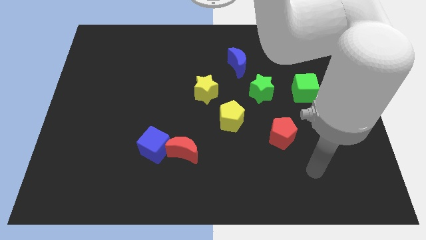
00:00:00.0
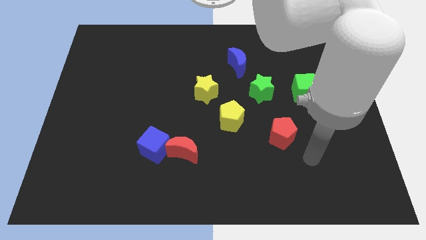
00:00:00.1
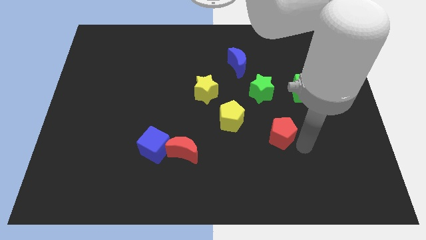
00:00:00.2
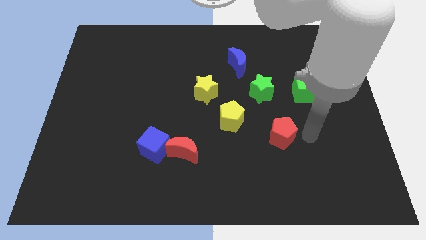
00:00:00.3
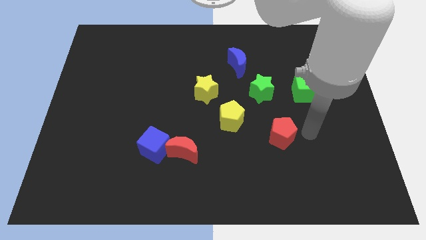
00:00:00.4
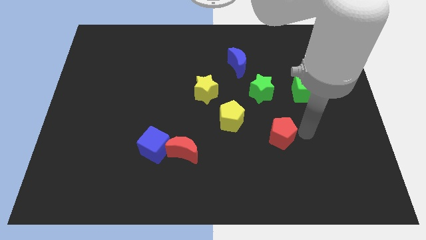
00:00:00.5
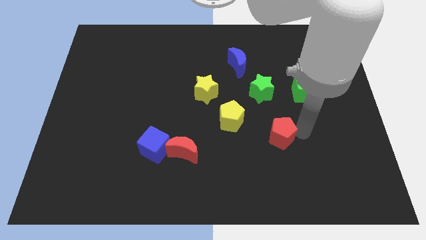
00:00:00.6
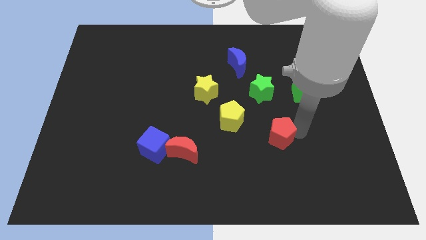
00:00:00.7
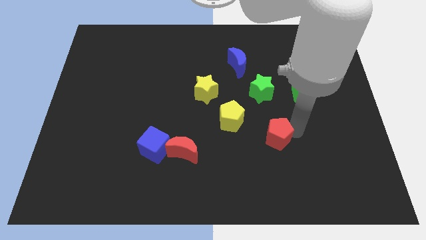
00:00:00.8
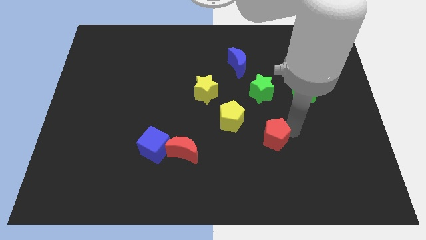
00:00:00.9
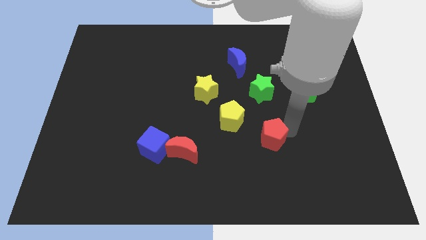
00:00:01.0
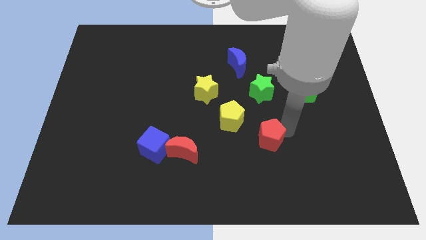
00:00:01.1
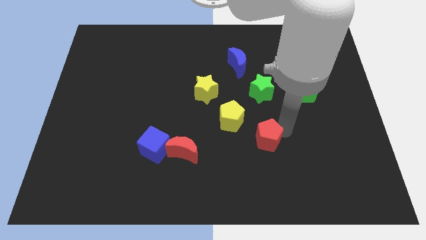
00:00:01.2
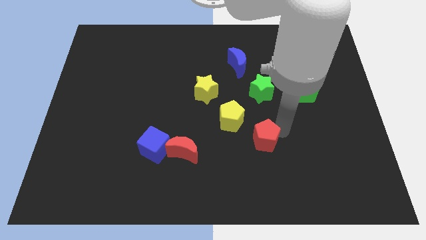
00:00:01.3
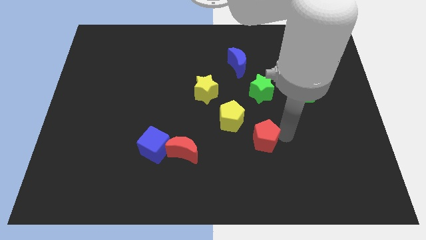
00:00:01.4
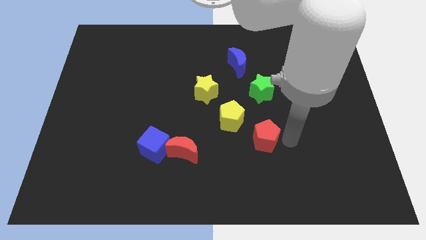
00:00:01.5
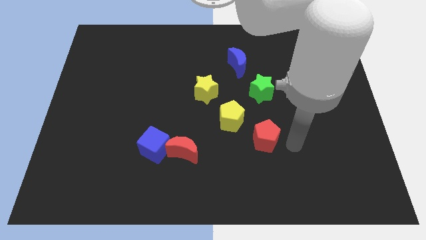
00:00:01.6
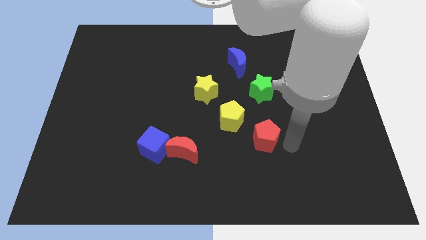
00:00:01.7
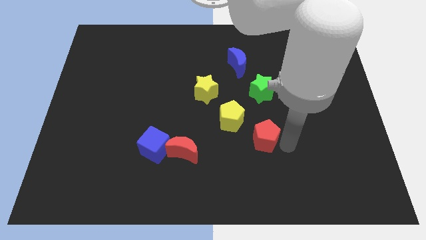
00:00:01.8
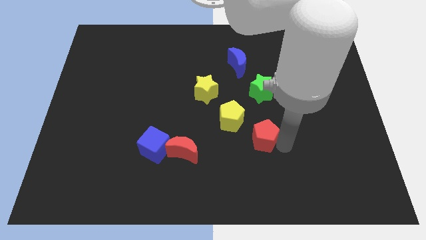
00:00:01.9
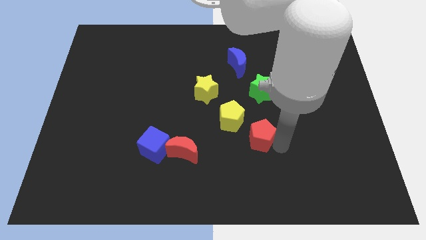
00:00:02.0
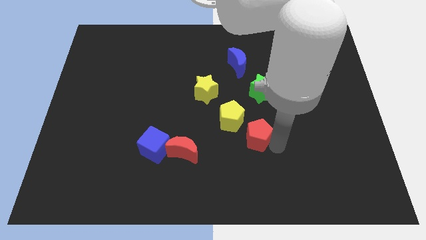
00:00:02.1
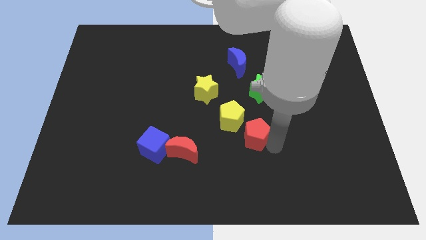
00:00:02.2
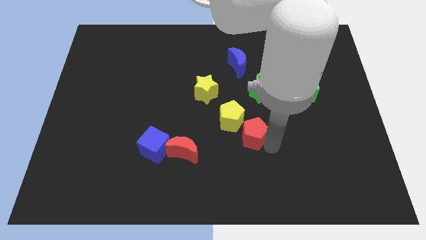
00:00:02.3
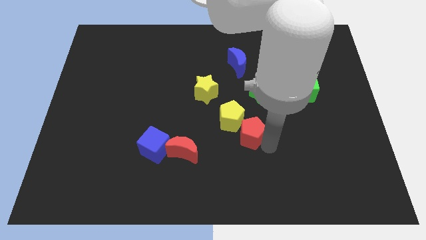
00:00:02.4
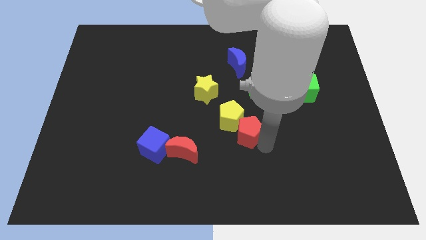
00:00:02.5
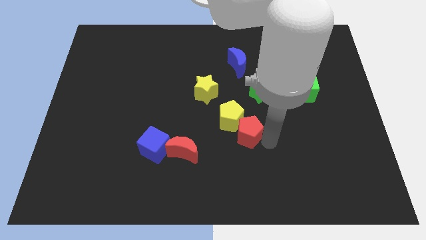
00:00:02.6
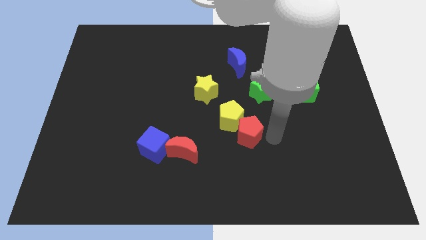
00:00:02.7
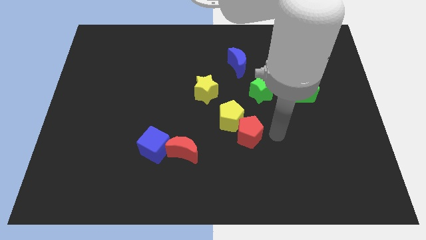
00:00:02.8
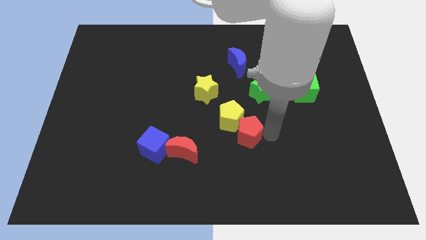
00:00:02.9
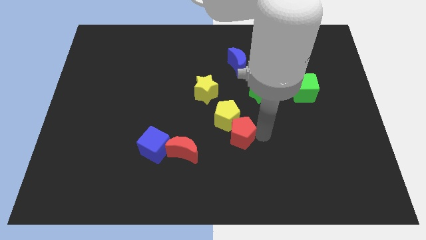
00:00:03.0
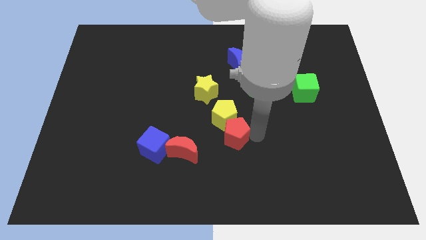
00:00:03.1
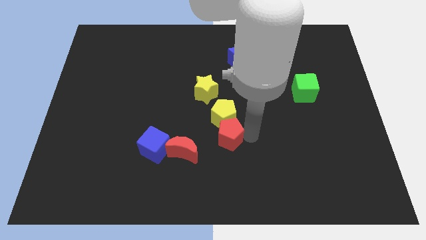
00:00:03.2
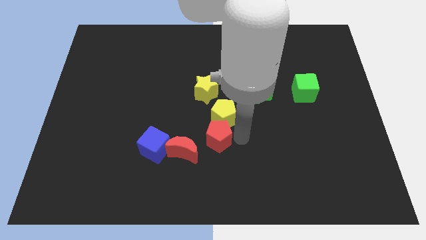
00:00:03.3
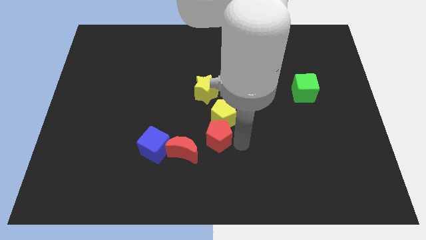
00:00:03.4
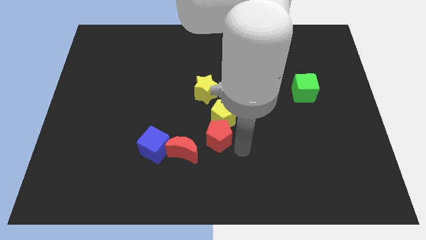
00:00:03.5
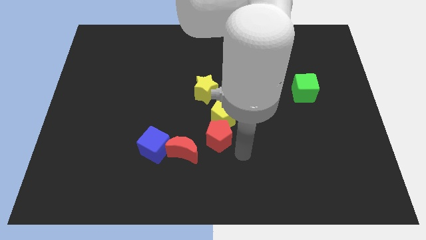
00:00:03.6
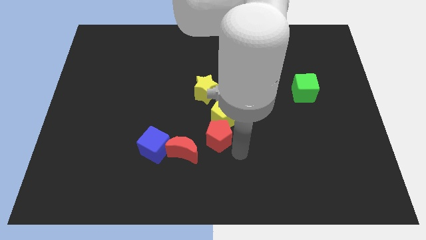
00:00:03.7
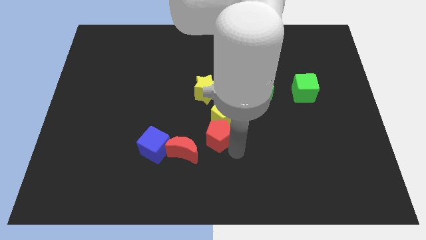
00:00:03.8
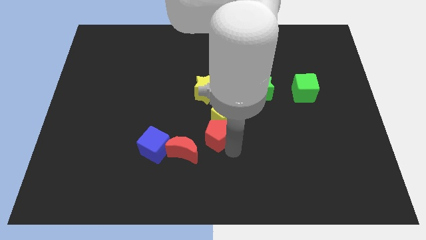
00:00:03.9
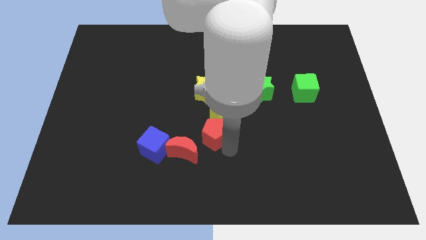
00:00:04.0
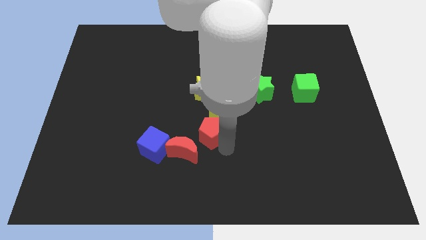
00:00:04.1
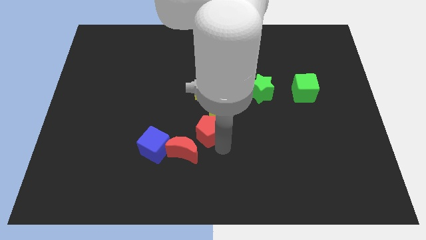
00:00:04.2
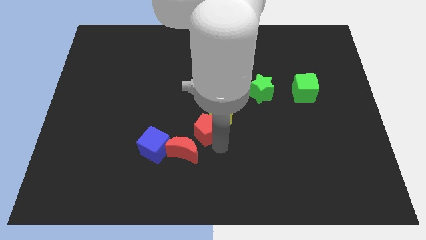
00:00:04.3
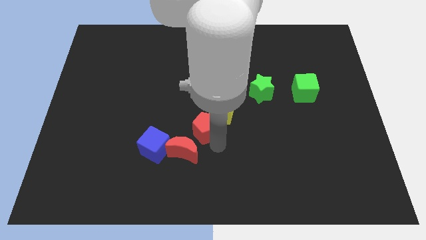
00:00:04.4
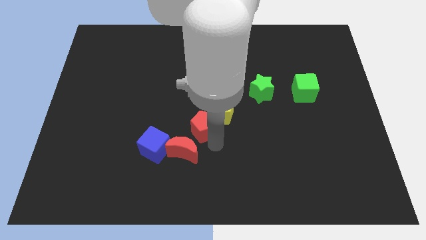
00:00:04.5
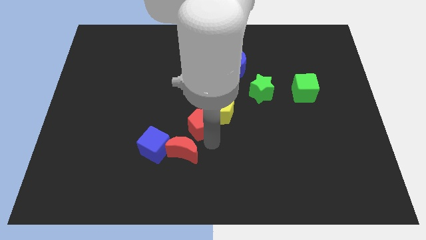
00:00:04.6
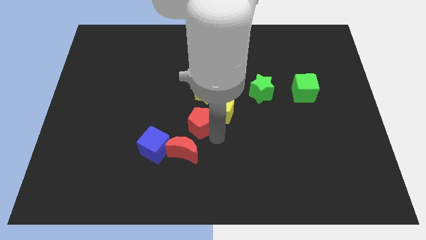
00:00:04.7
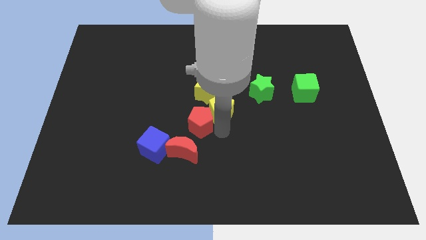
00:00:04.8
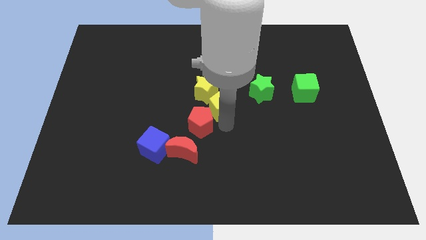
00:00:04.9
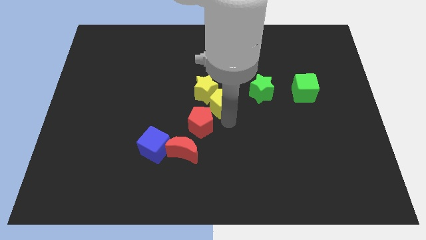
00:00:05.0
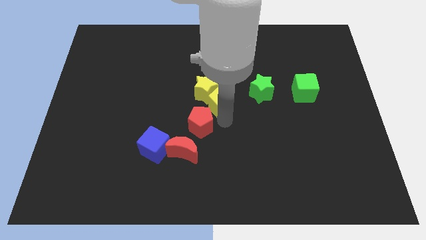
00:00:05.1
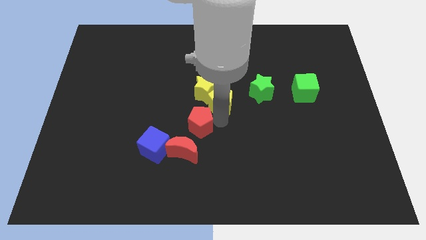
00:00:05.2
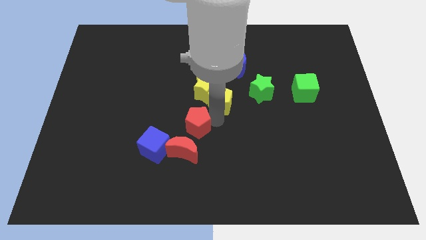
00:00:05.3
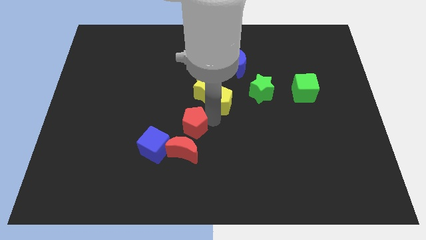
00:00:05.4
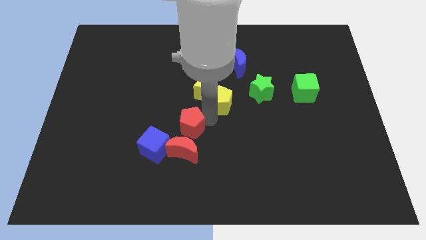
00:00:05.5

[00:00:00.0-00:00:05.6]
move the red pentagon to the left

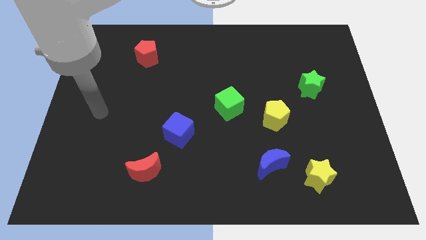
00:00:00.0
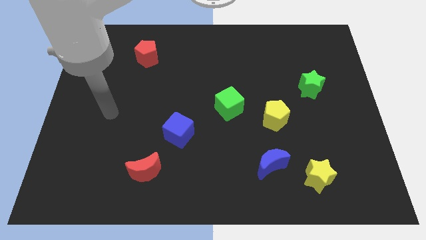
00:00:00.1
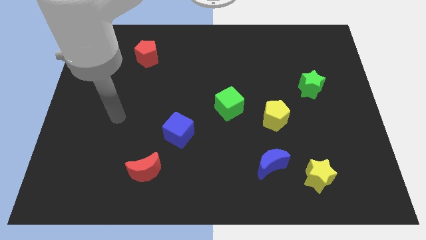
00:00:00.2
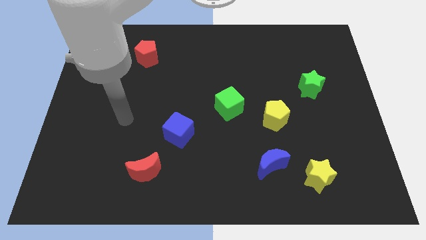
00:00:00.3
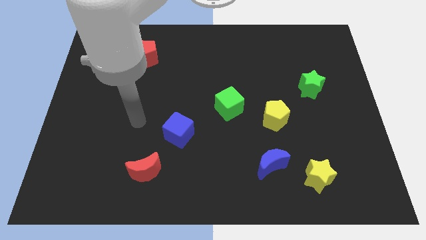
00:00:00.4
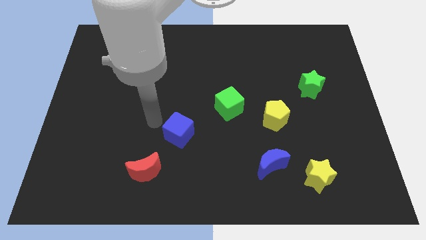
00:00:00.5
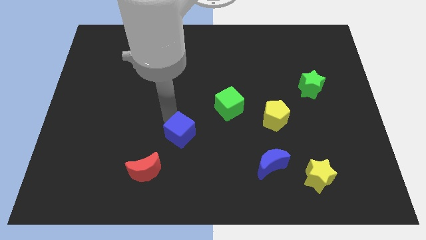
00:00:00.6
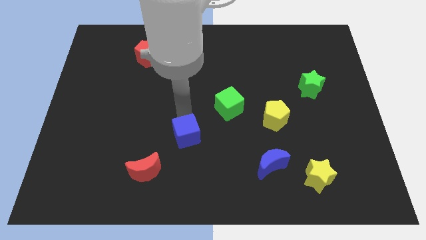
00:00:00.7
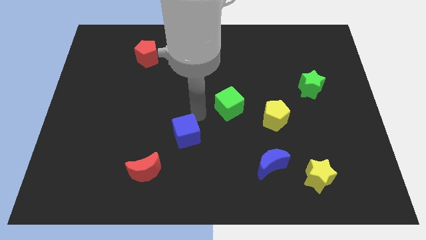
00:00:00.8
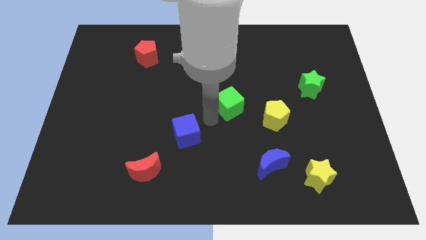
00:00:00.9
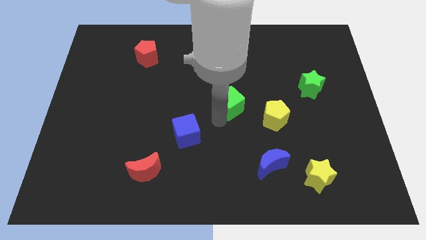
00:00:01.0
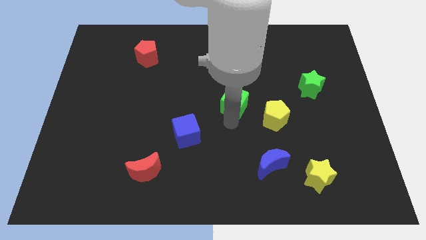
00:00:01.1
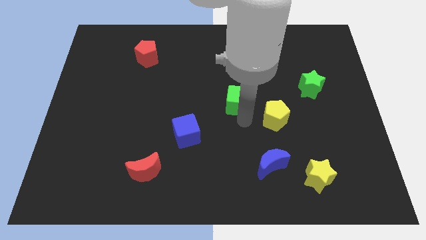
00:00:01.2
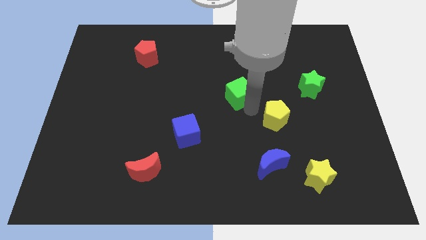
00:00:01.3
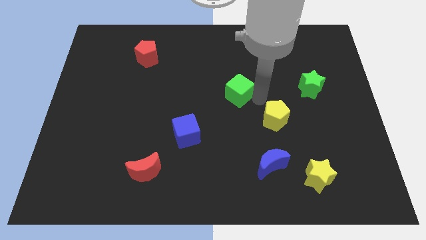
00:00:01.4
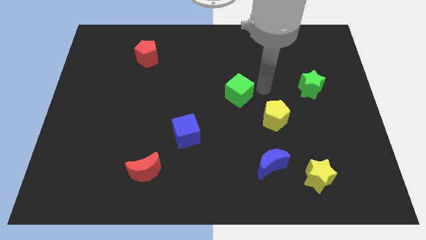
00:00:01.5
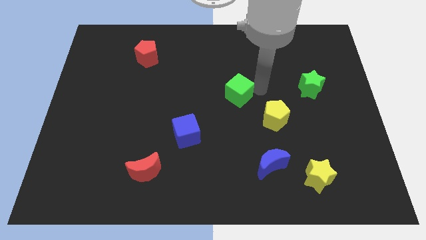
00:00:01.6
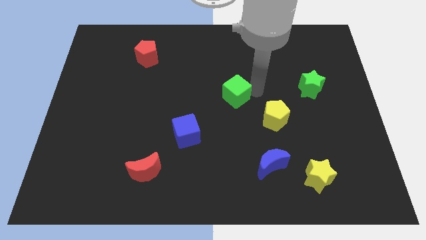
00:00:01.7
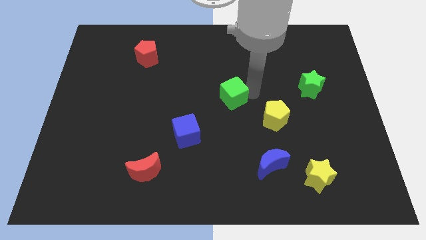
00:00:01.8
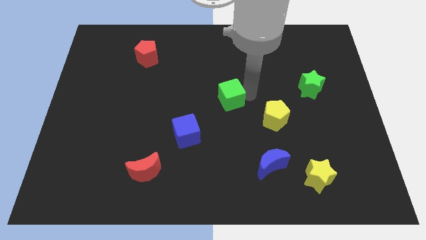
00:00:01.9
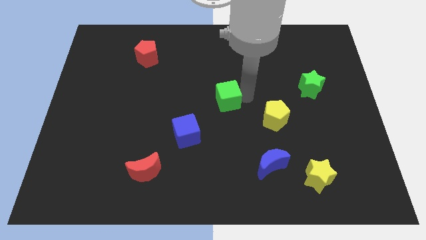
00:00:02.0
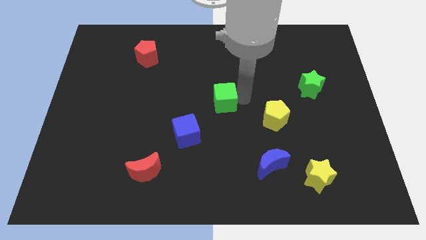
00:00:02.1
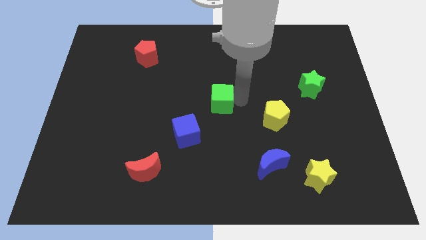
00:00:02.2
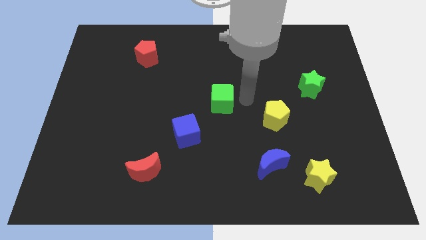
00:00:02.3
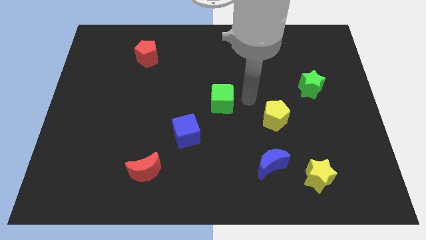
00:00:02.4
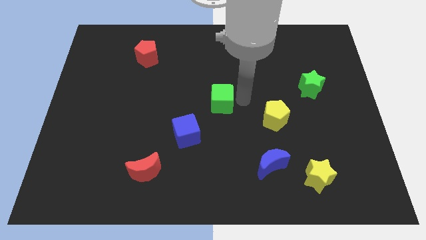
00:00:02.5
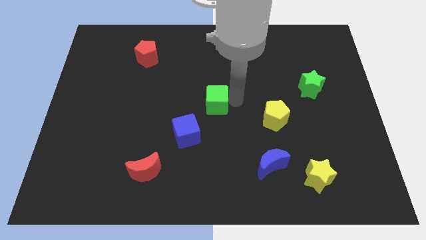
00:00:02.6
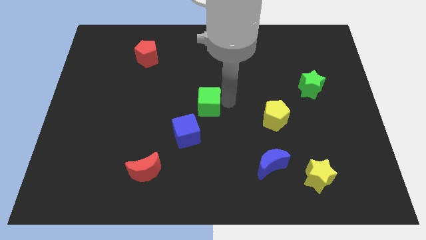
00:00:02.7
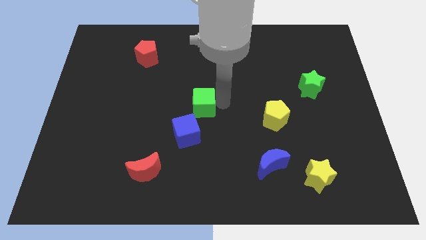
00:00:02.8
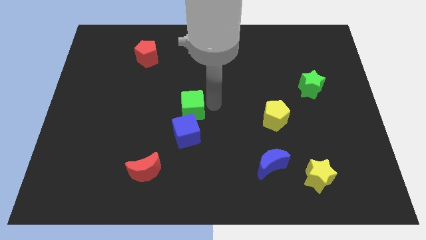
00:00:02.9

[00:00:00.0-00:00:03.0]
move the green cube slightly left

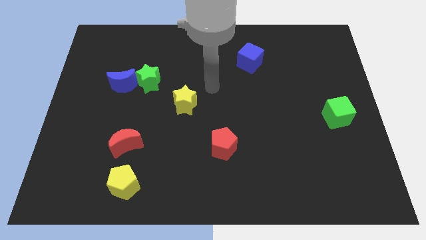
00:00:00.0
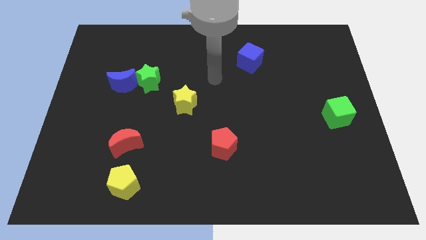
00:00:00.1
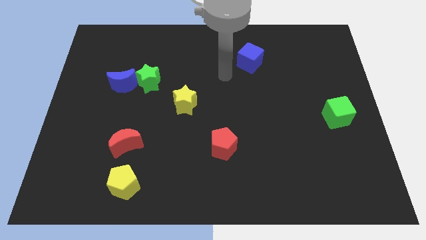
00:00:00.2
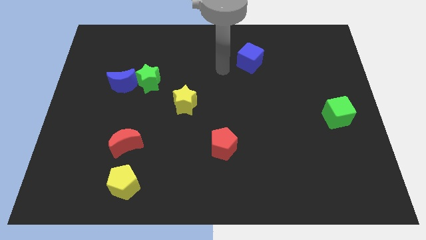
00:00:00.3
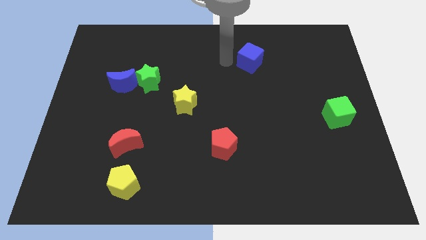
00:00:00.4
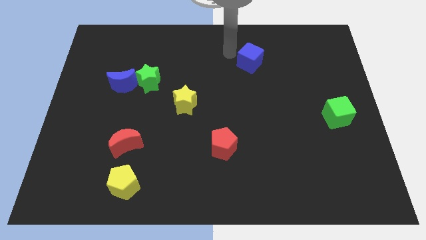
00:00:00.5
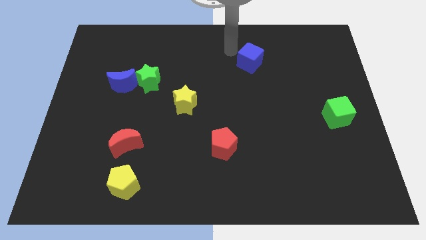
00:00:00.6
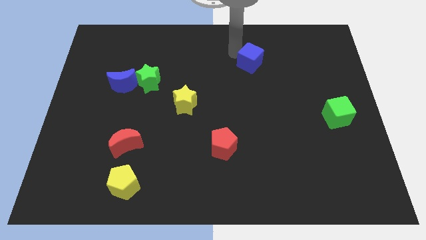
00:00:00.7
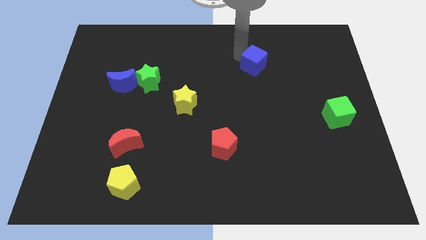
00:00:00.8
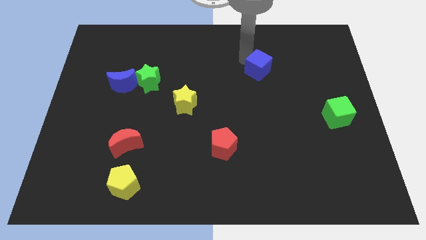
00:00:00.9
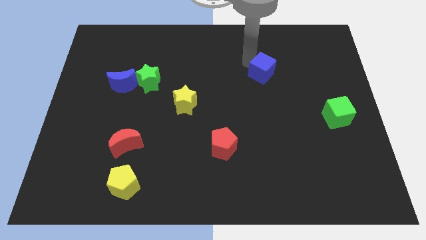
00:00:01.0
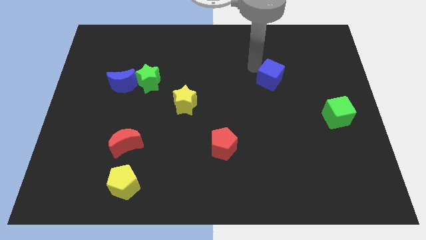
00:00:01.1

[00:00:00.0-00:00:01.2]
move the blue cube a little down and then right
